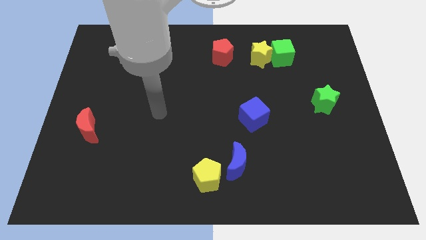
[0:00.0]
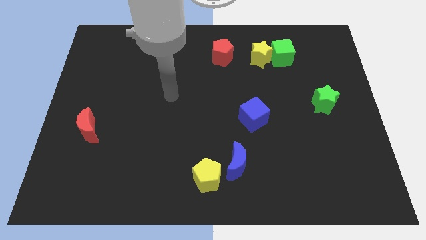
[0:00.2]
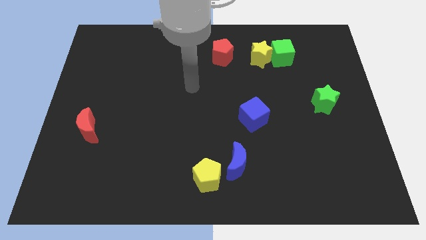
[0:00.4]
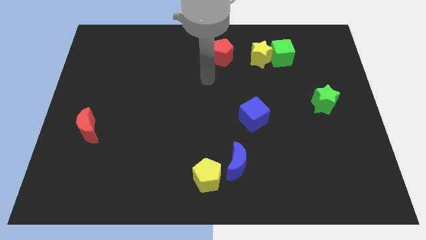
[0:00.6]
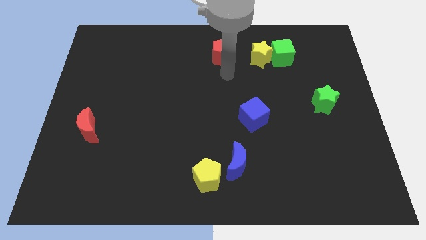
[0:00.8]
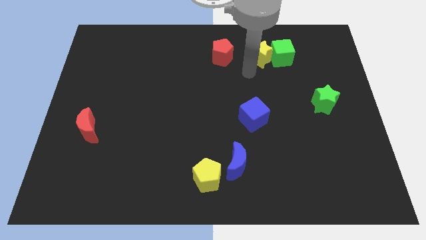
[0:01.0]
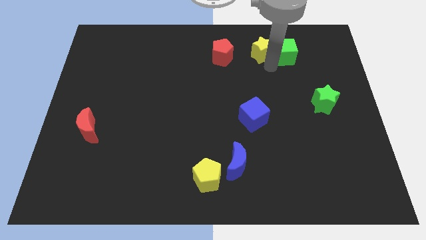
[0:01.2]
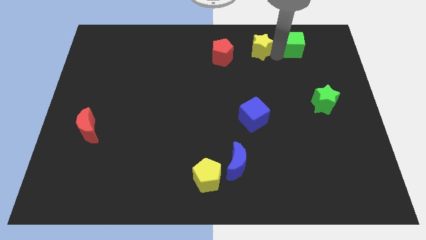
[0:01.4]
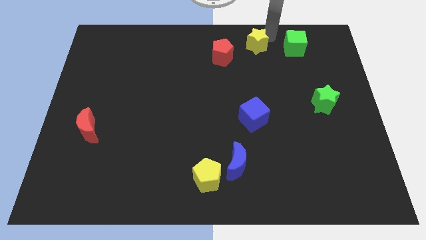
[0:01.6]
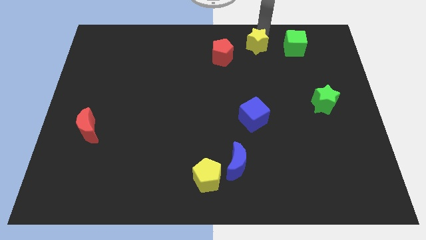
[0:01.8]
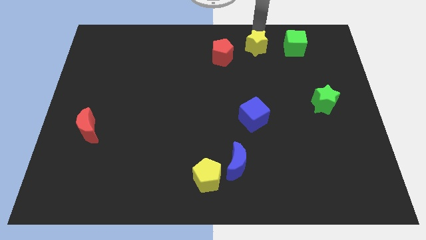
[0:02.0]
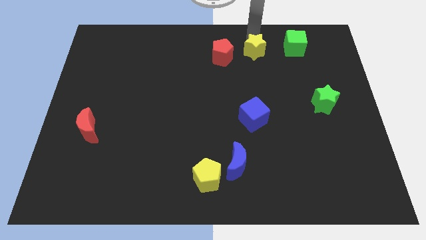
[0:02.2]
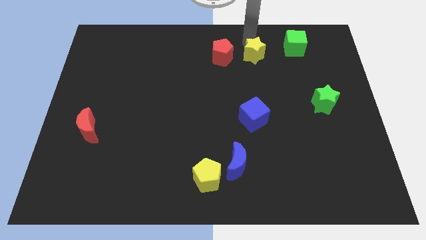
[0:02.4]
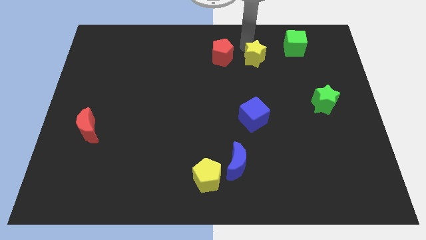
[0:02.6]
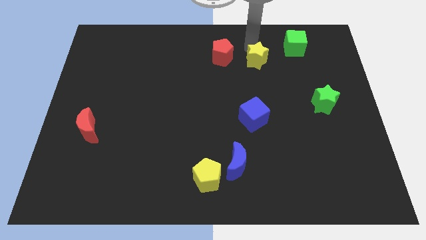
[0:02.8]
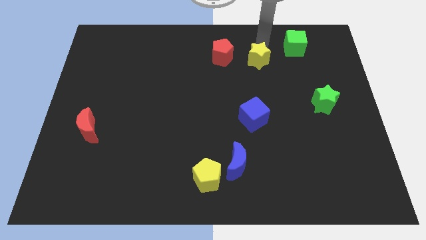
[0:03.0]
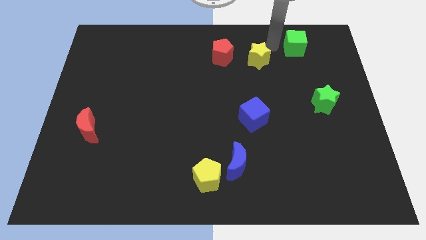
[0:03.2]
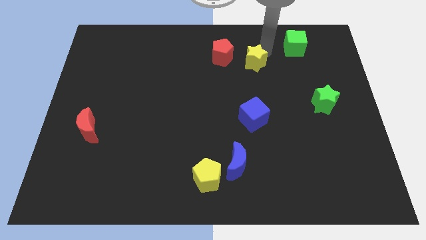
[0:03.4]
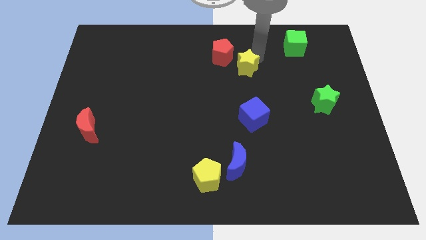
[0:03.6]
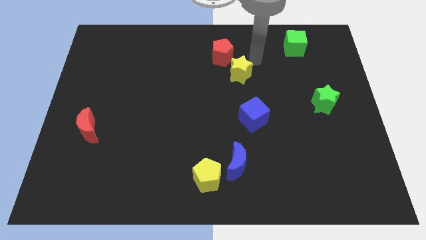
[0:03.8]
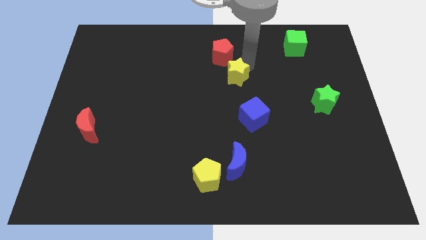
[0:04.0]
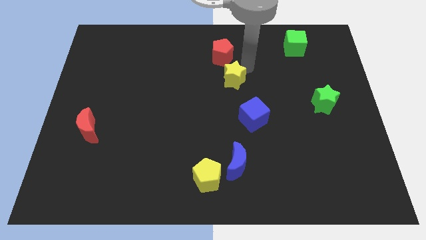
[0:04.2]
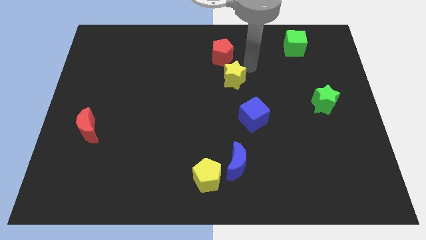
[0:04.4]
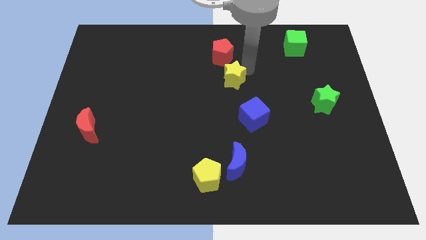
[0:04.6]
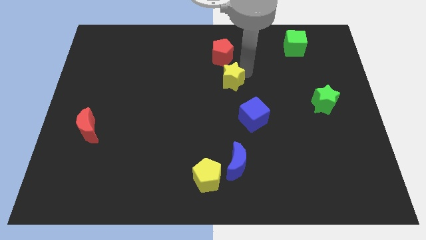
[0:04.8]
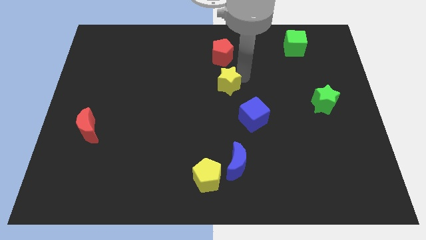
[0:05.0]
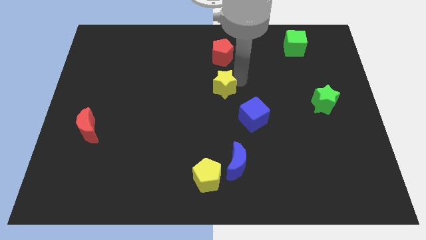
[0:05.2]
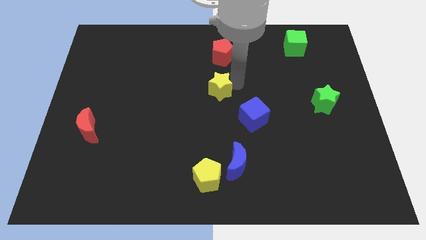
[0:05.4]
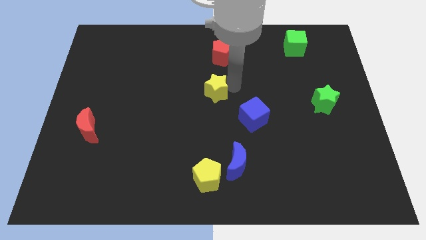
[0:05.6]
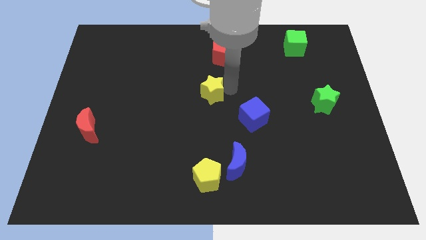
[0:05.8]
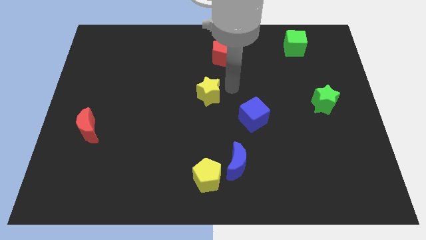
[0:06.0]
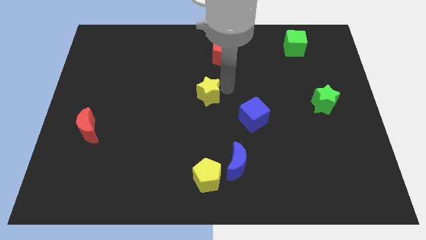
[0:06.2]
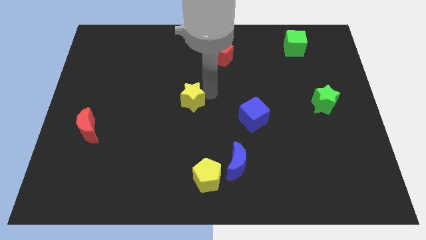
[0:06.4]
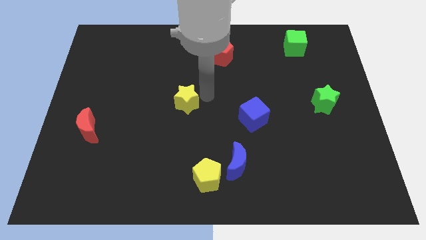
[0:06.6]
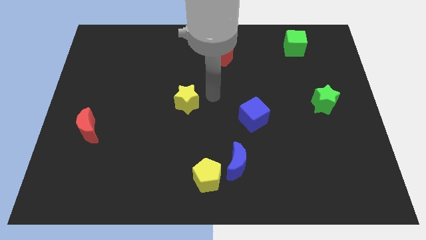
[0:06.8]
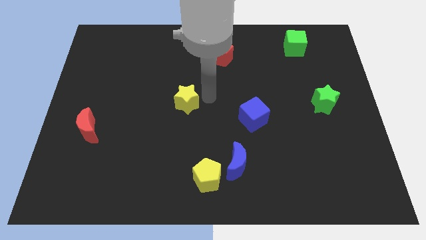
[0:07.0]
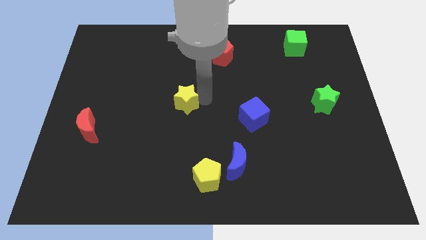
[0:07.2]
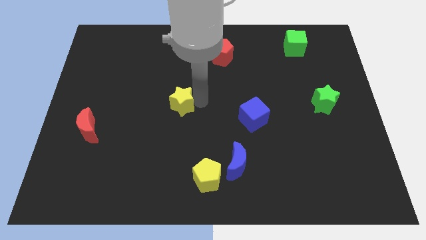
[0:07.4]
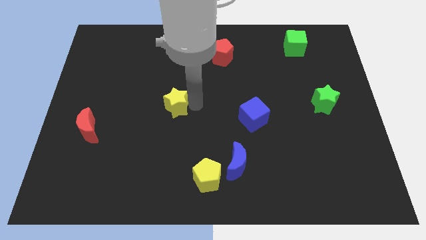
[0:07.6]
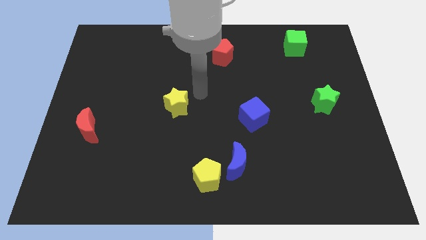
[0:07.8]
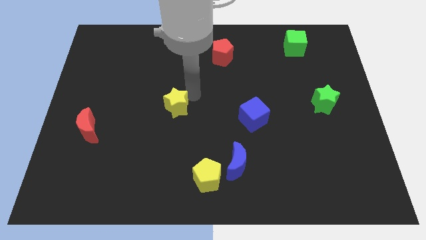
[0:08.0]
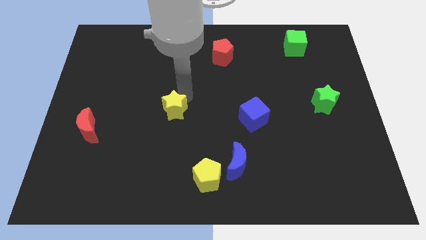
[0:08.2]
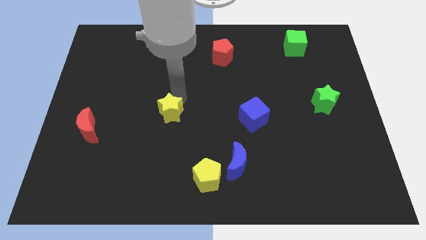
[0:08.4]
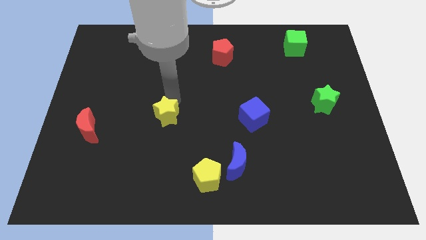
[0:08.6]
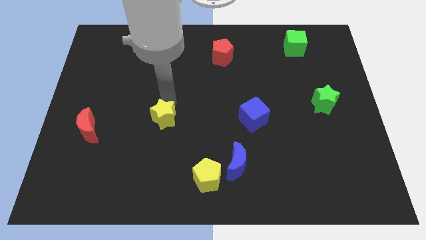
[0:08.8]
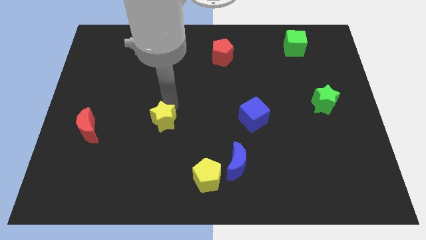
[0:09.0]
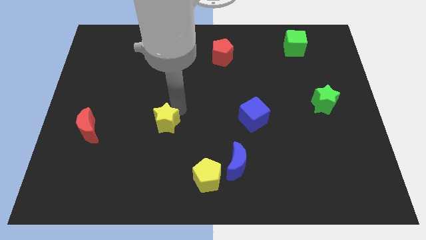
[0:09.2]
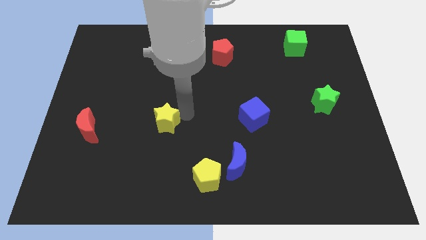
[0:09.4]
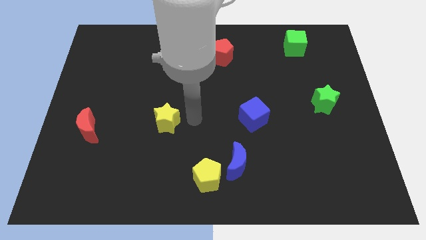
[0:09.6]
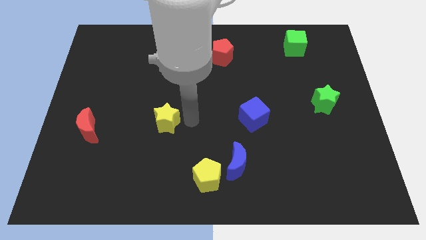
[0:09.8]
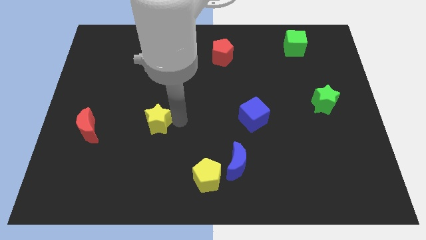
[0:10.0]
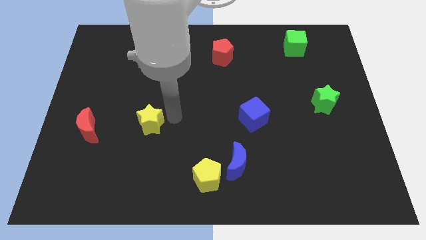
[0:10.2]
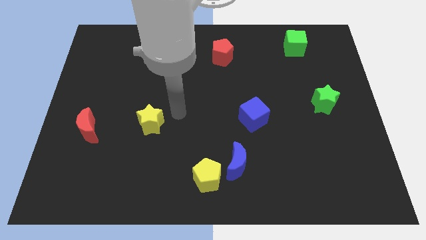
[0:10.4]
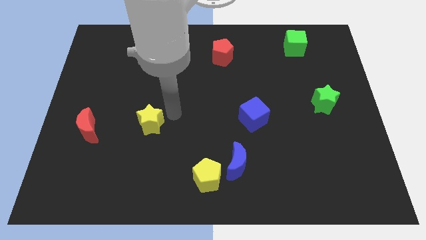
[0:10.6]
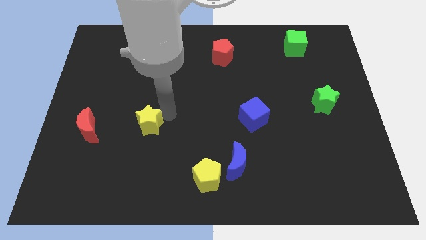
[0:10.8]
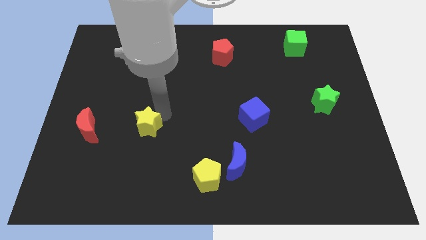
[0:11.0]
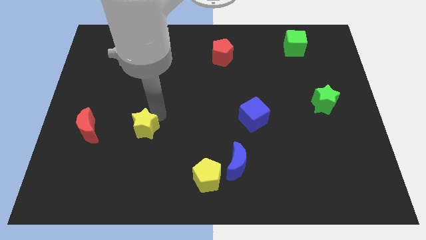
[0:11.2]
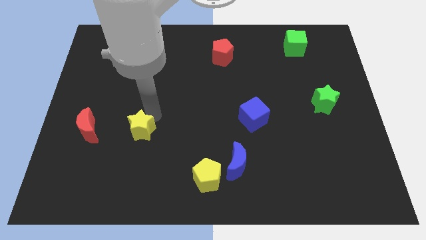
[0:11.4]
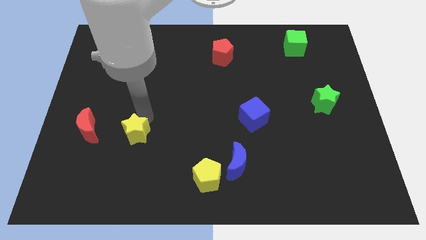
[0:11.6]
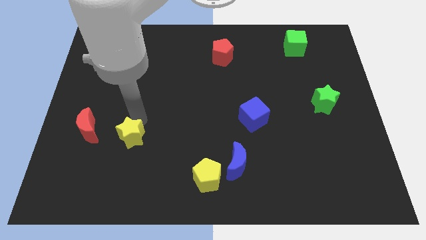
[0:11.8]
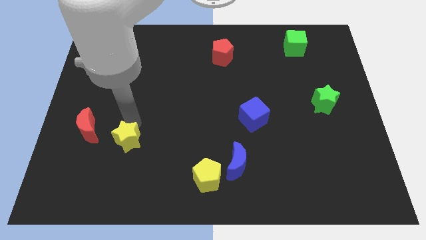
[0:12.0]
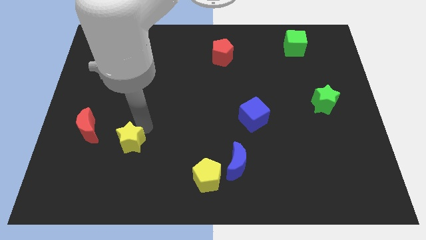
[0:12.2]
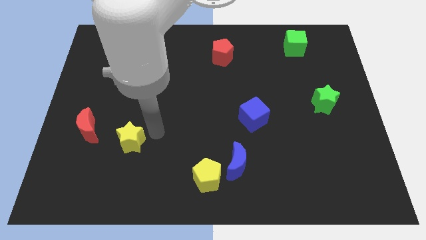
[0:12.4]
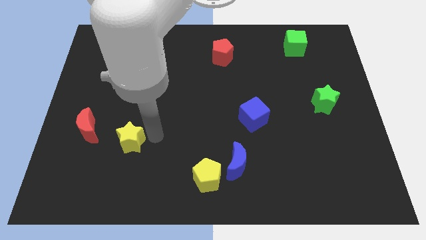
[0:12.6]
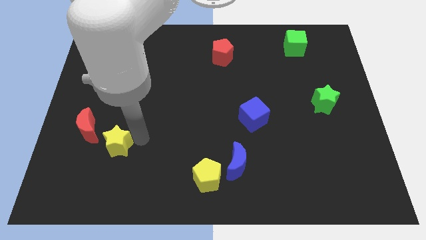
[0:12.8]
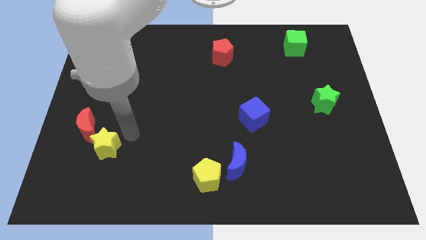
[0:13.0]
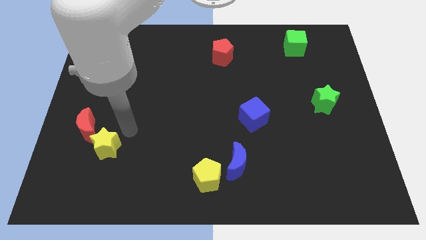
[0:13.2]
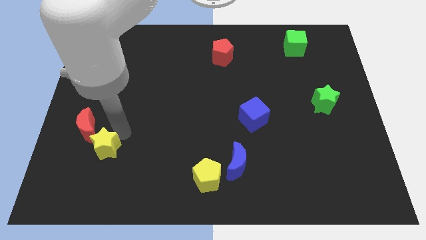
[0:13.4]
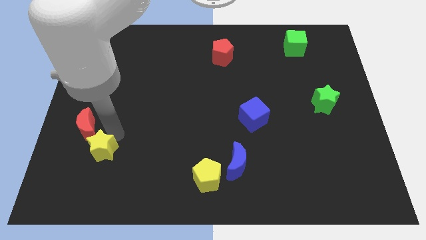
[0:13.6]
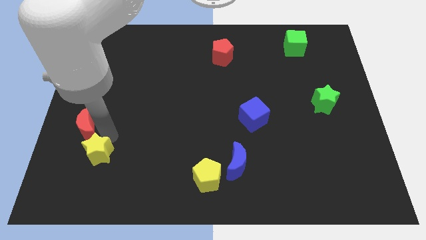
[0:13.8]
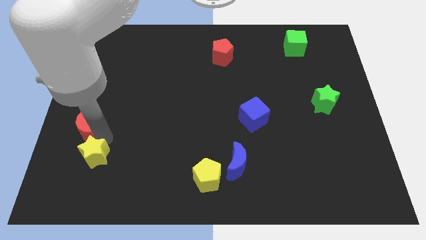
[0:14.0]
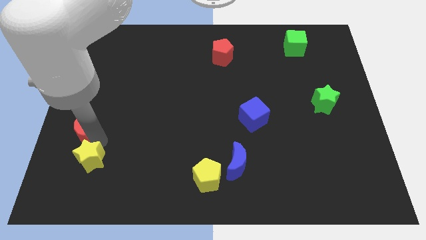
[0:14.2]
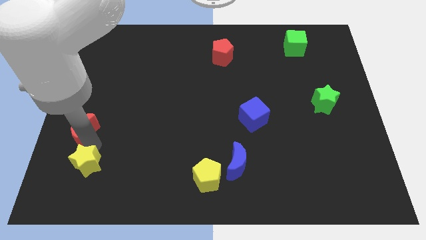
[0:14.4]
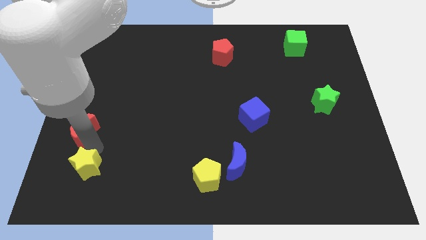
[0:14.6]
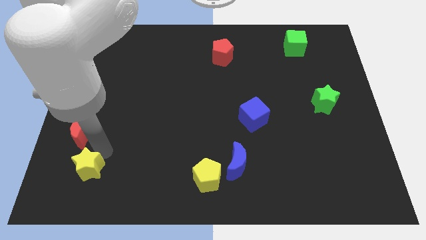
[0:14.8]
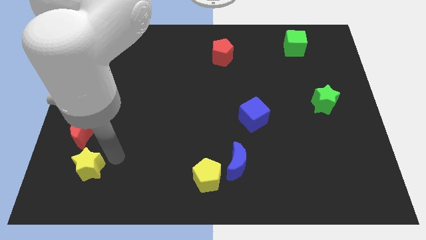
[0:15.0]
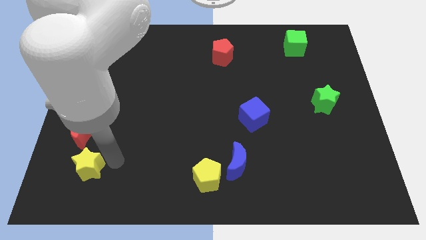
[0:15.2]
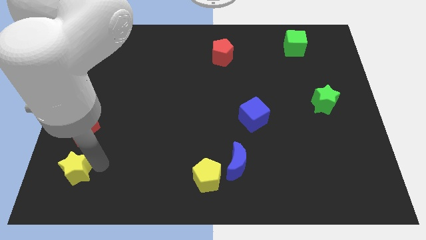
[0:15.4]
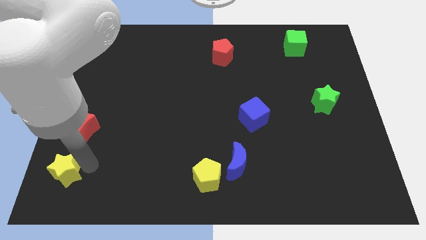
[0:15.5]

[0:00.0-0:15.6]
move the yellow star to the bottom left corner
